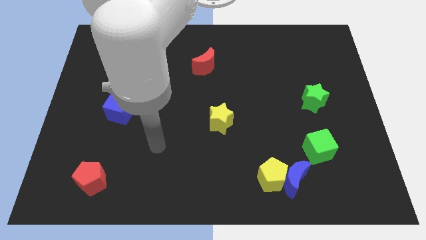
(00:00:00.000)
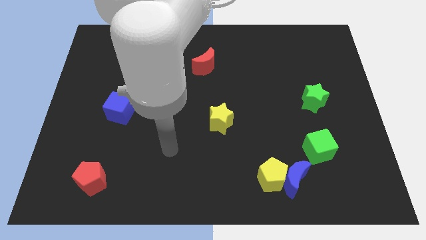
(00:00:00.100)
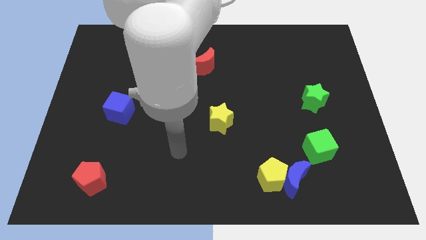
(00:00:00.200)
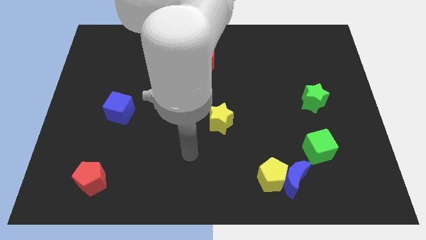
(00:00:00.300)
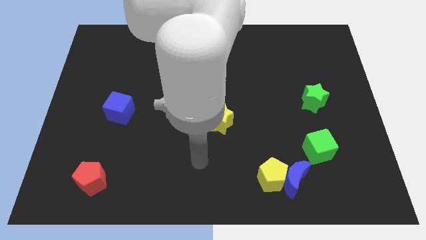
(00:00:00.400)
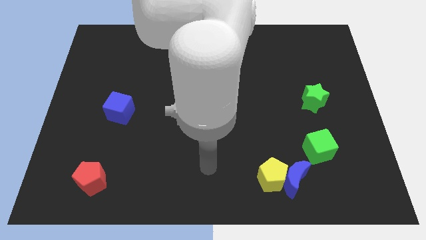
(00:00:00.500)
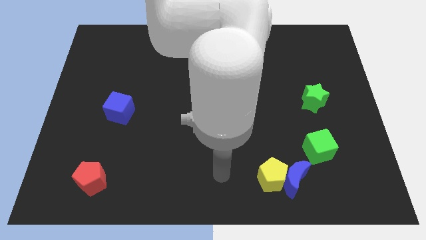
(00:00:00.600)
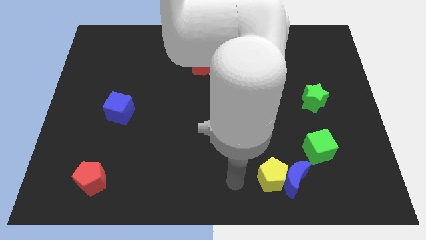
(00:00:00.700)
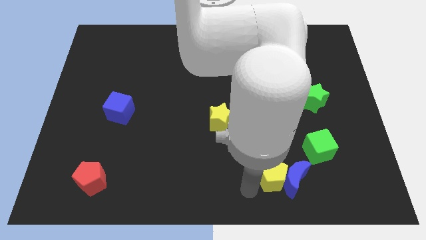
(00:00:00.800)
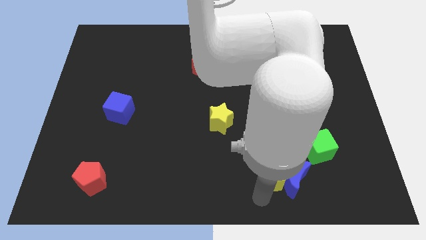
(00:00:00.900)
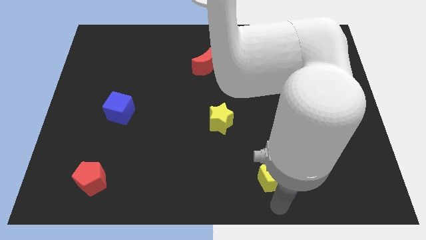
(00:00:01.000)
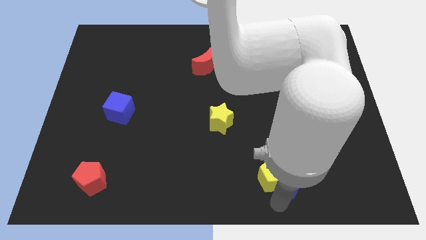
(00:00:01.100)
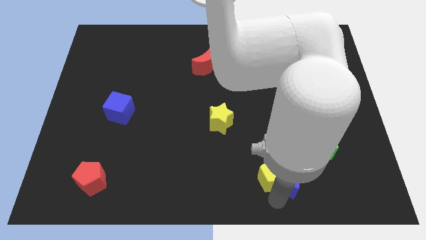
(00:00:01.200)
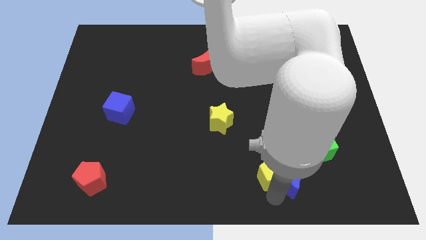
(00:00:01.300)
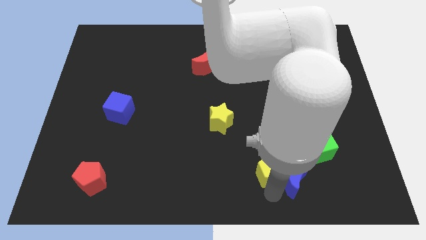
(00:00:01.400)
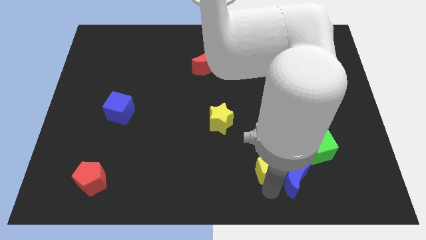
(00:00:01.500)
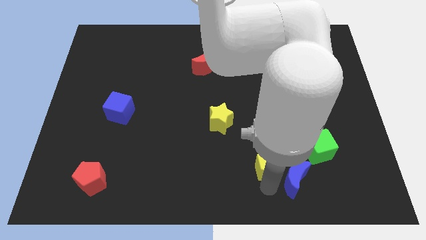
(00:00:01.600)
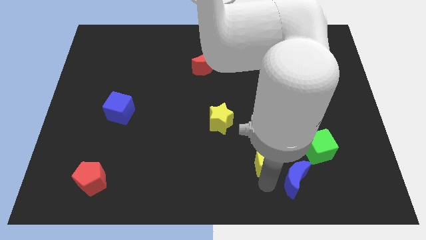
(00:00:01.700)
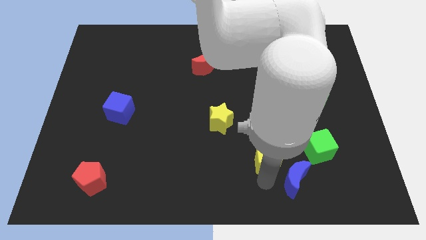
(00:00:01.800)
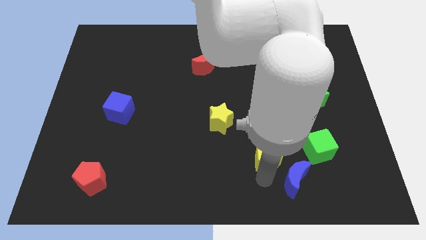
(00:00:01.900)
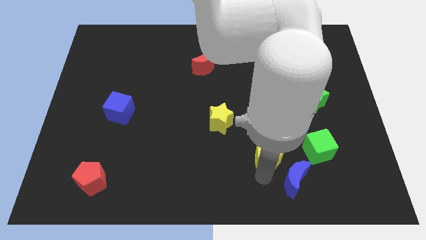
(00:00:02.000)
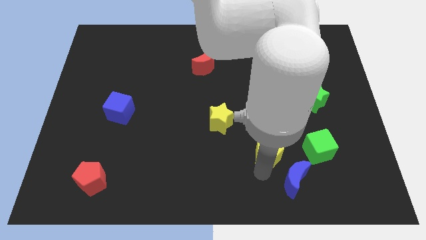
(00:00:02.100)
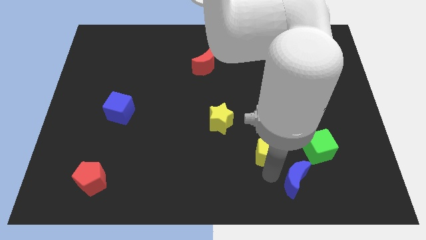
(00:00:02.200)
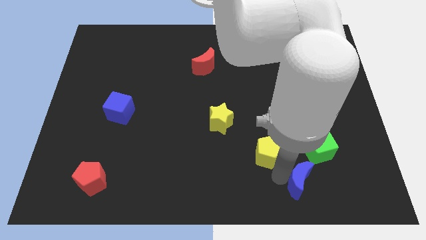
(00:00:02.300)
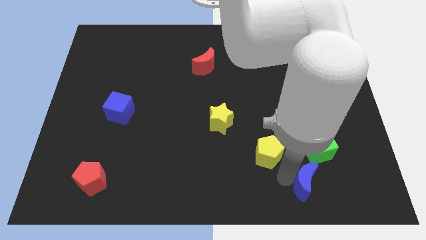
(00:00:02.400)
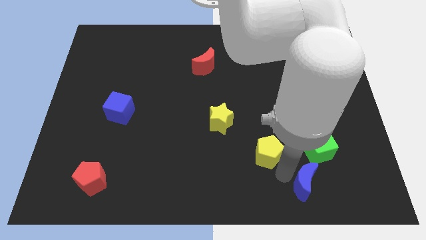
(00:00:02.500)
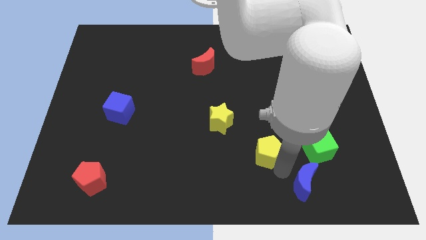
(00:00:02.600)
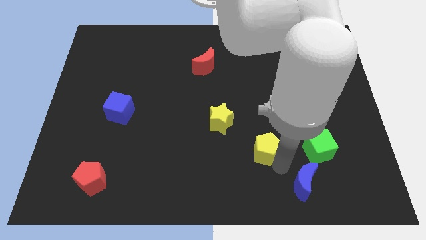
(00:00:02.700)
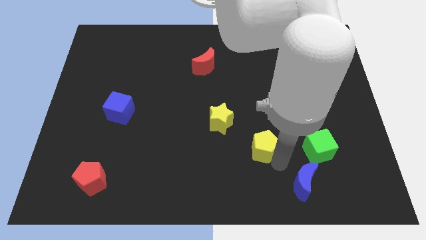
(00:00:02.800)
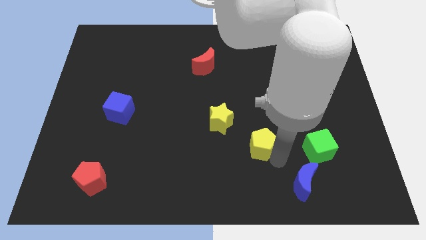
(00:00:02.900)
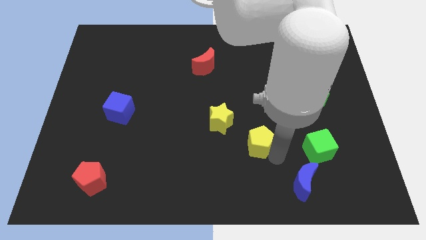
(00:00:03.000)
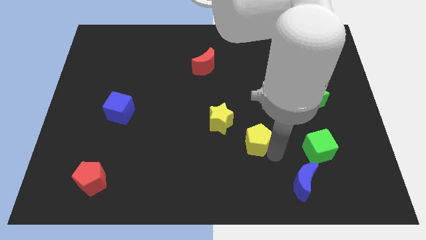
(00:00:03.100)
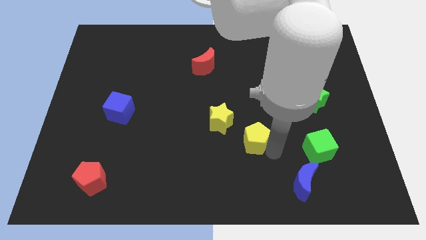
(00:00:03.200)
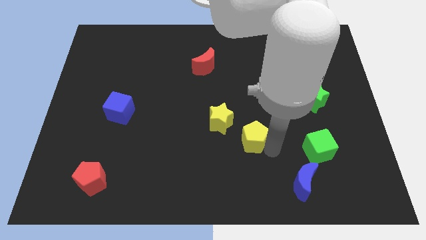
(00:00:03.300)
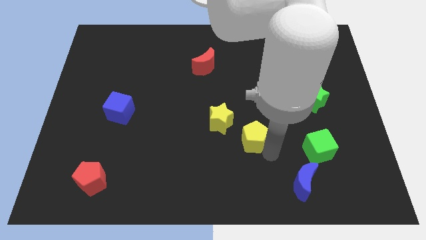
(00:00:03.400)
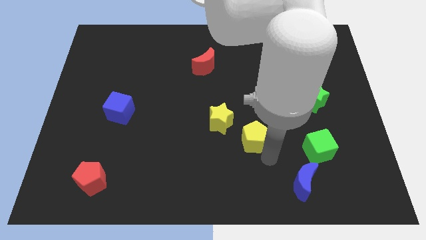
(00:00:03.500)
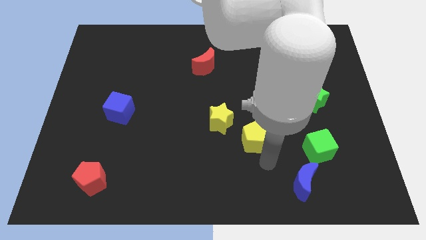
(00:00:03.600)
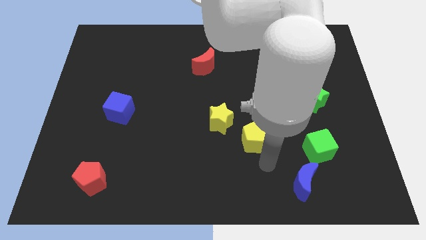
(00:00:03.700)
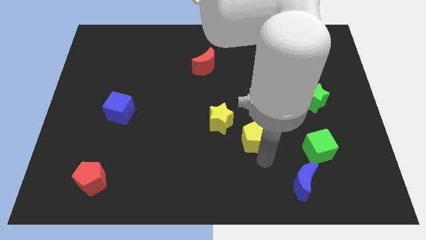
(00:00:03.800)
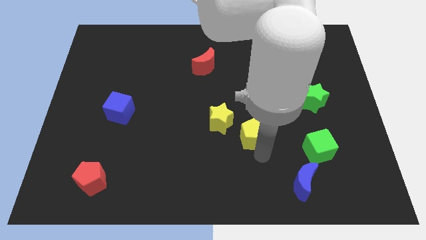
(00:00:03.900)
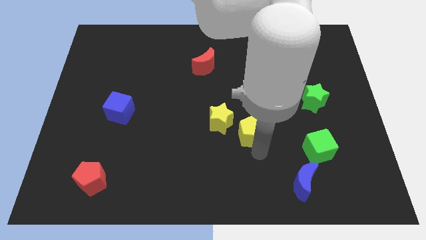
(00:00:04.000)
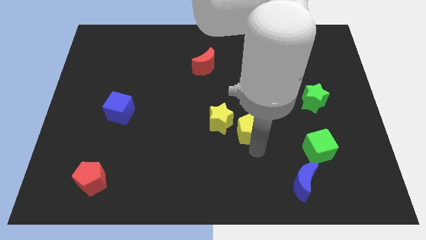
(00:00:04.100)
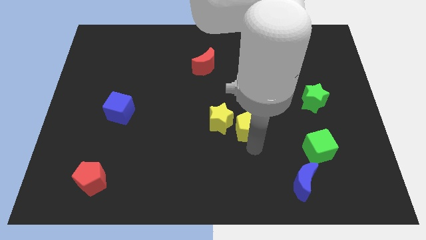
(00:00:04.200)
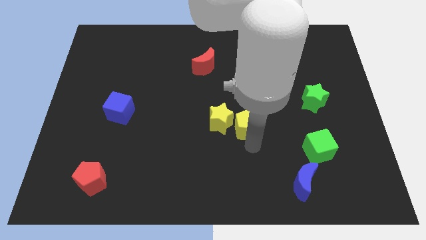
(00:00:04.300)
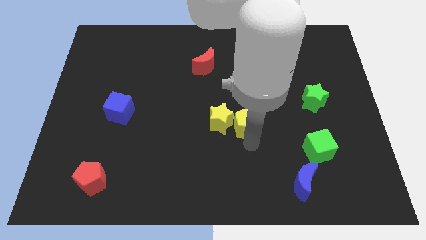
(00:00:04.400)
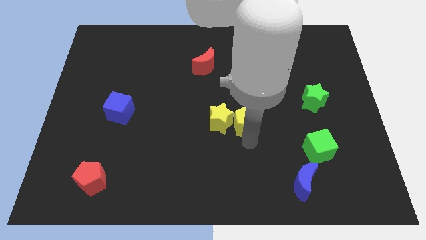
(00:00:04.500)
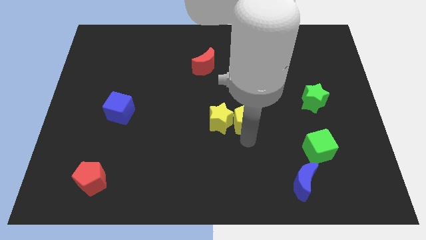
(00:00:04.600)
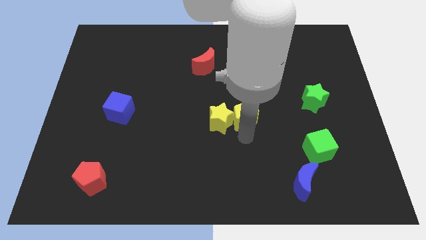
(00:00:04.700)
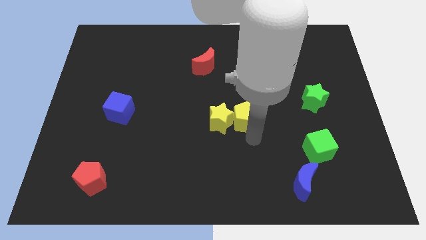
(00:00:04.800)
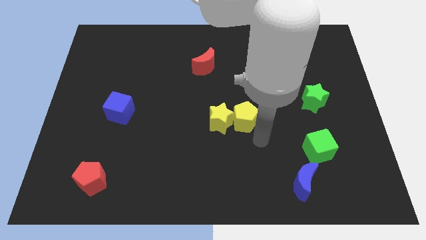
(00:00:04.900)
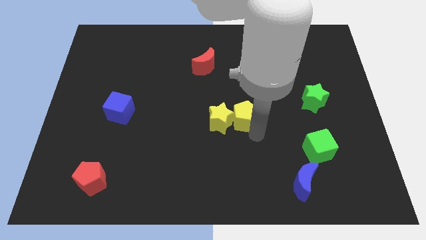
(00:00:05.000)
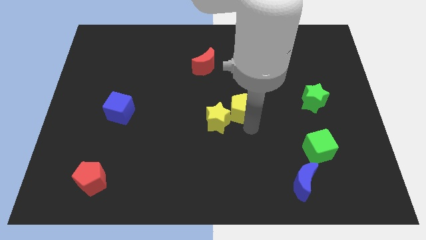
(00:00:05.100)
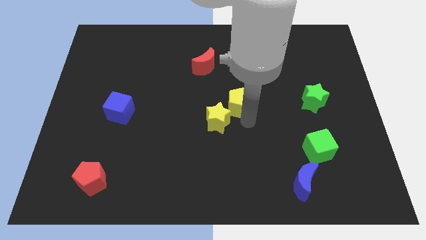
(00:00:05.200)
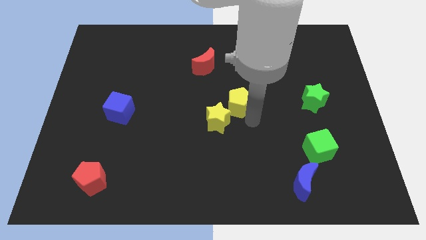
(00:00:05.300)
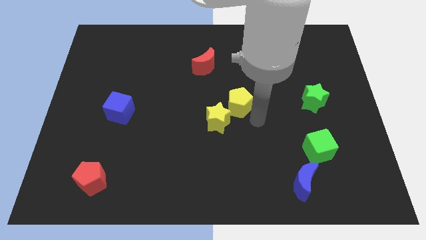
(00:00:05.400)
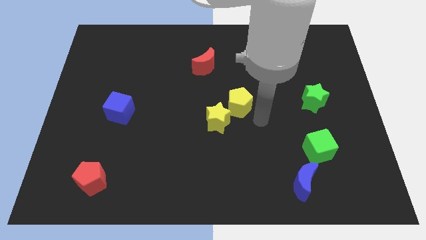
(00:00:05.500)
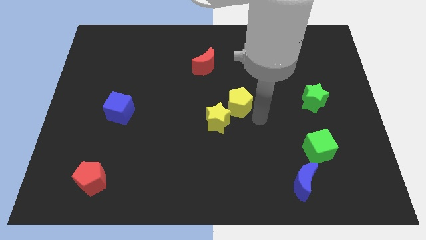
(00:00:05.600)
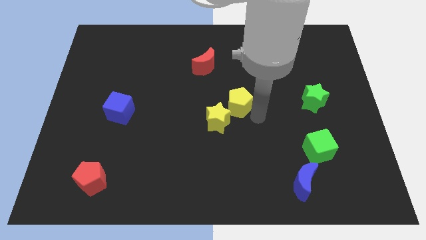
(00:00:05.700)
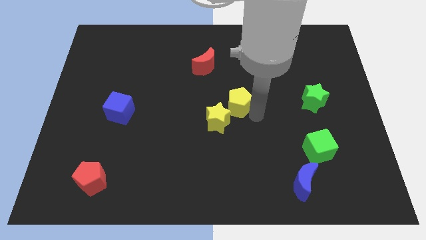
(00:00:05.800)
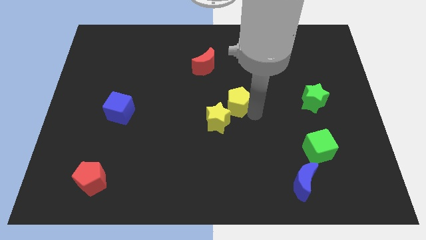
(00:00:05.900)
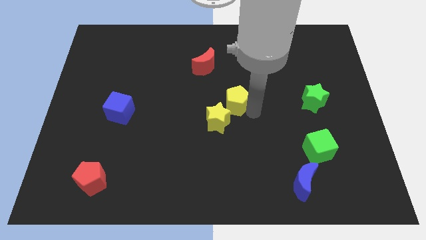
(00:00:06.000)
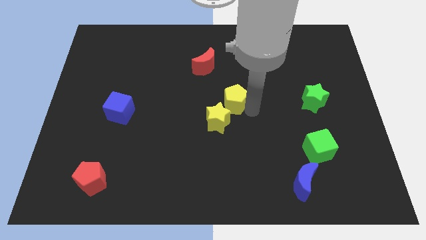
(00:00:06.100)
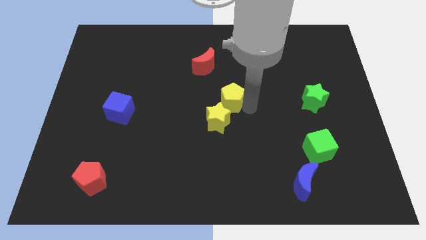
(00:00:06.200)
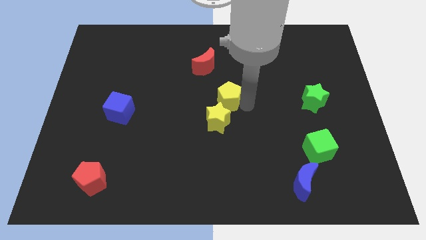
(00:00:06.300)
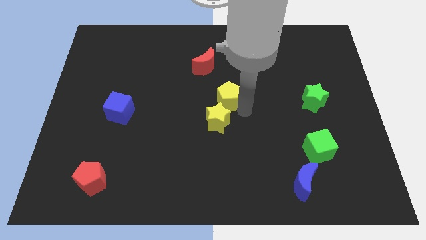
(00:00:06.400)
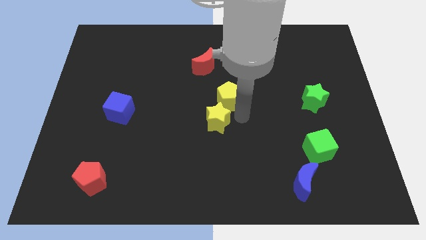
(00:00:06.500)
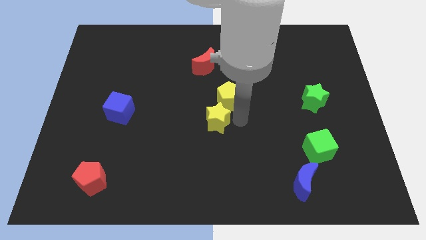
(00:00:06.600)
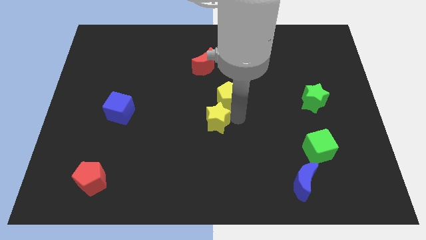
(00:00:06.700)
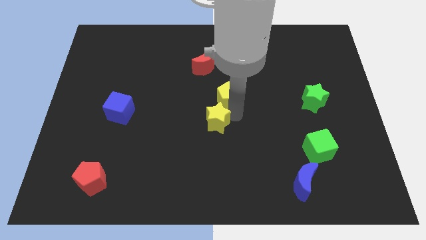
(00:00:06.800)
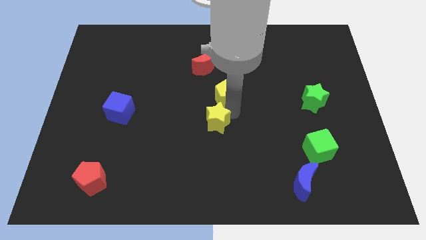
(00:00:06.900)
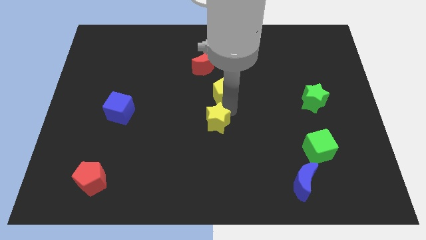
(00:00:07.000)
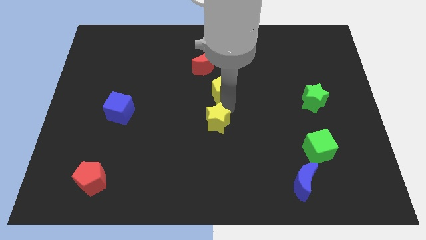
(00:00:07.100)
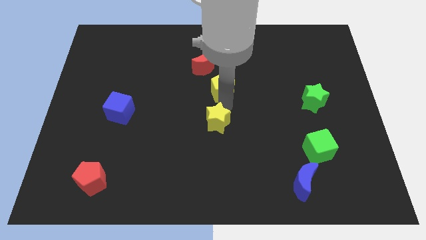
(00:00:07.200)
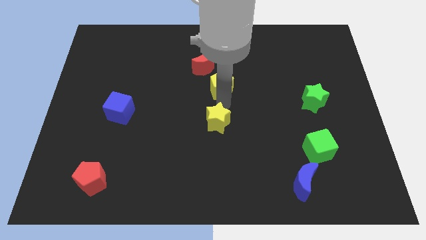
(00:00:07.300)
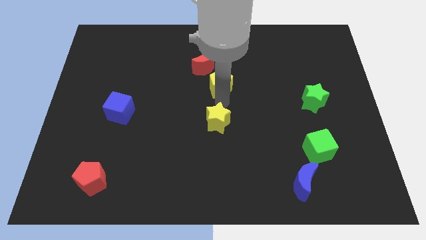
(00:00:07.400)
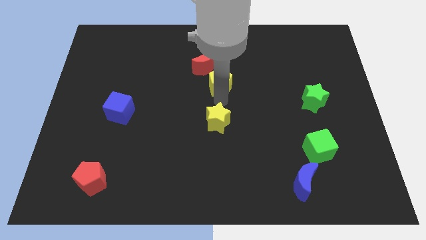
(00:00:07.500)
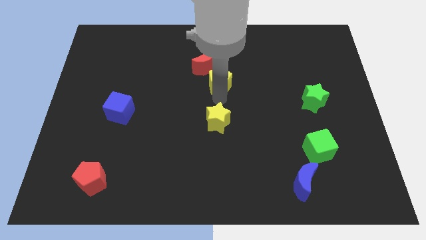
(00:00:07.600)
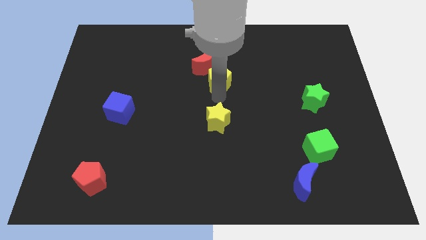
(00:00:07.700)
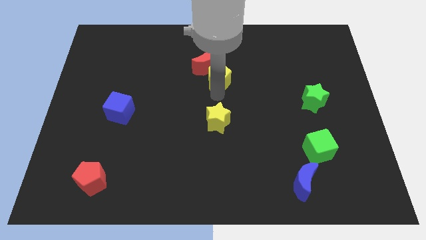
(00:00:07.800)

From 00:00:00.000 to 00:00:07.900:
push the yellow pentagon close to the red moon
